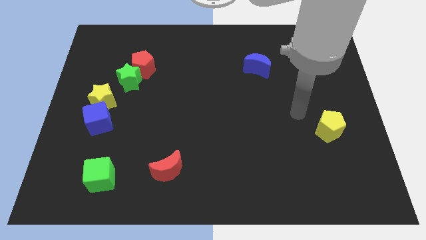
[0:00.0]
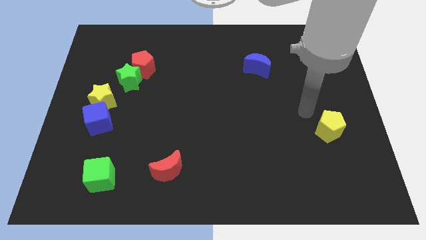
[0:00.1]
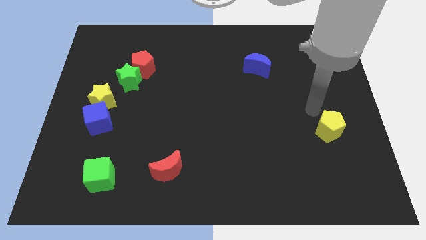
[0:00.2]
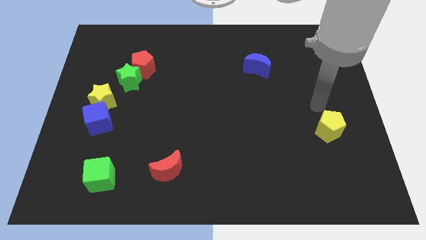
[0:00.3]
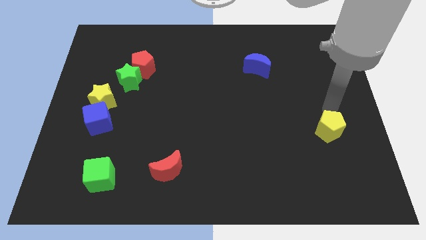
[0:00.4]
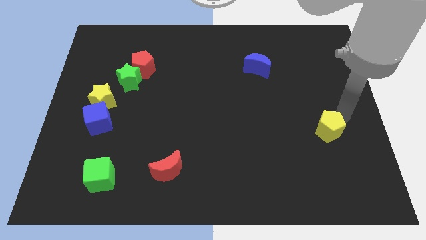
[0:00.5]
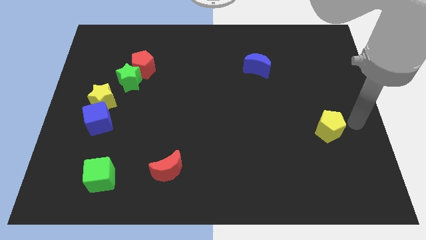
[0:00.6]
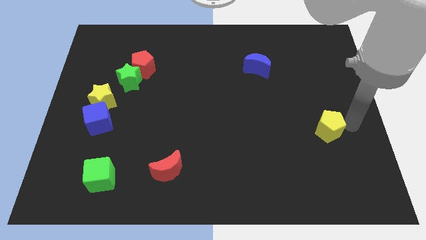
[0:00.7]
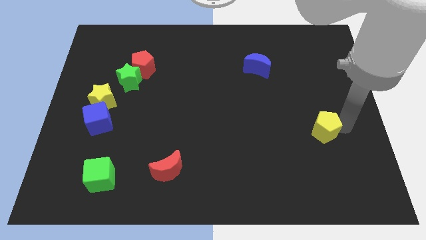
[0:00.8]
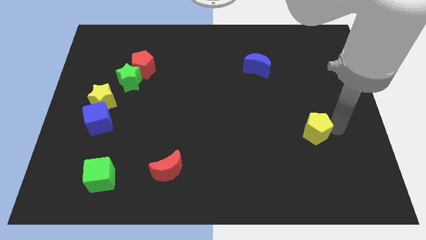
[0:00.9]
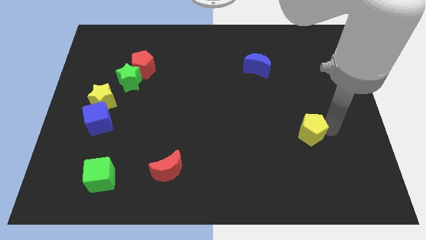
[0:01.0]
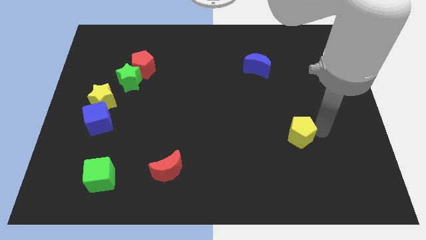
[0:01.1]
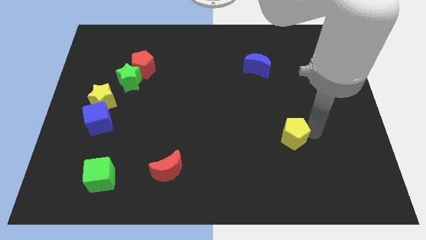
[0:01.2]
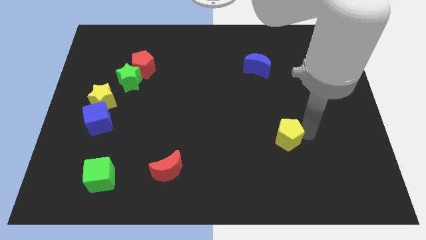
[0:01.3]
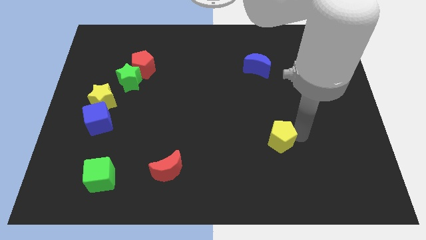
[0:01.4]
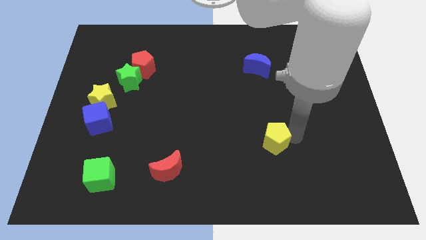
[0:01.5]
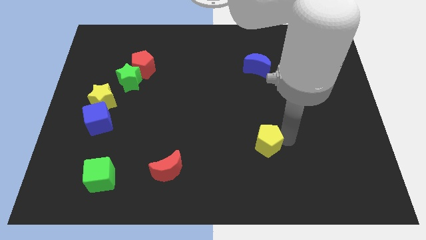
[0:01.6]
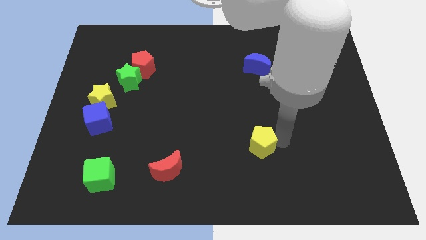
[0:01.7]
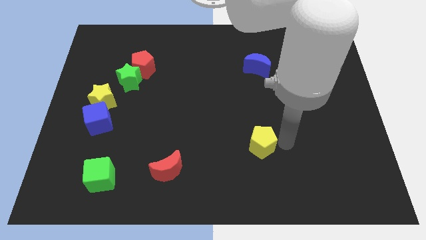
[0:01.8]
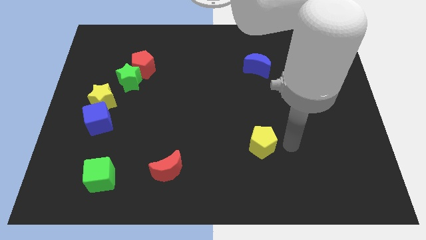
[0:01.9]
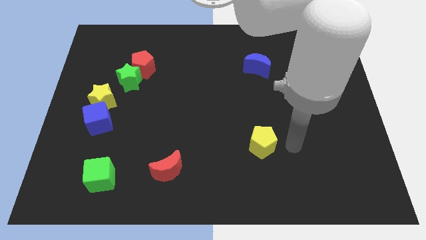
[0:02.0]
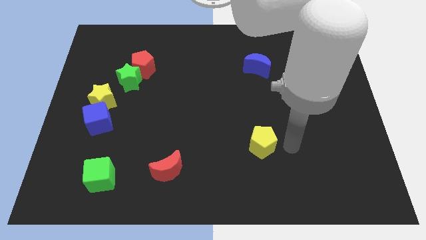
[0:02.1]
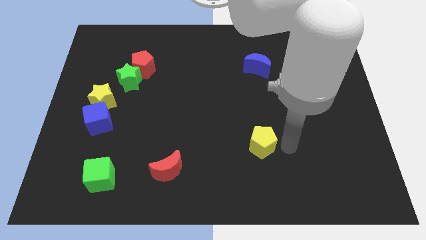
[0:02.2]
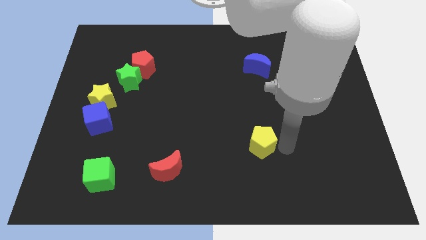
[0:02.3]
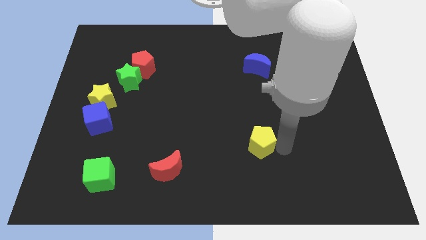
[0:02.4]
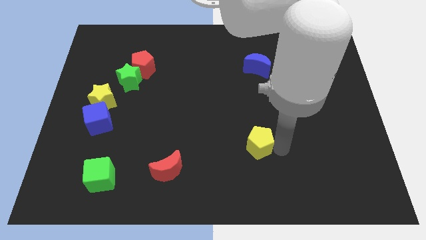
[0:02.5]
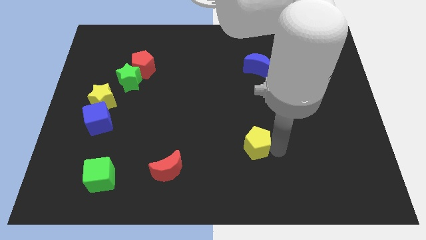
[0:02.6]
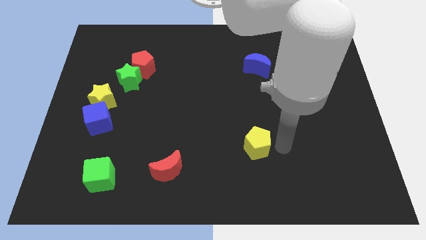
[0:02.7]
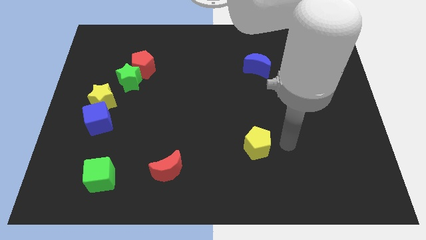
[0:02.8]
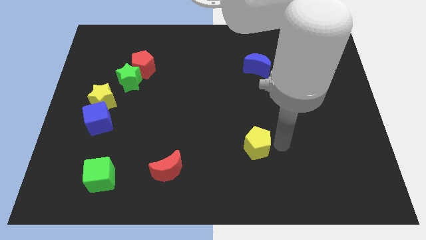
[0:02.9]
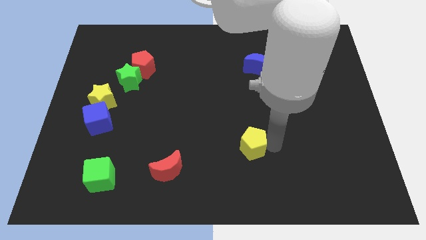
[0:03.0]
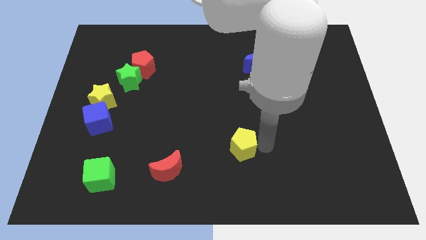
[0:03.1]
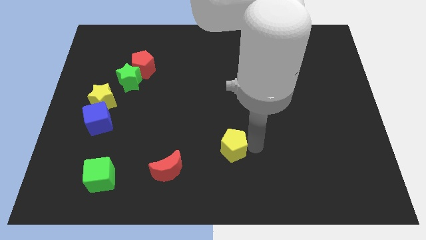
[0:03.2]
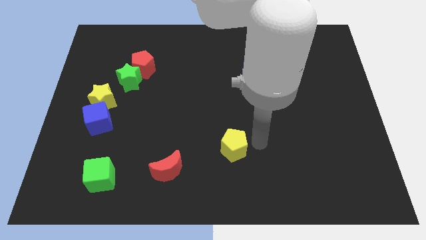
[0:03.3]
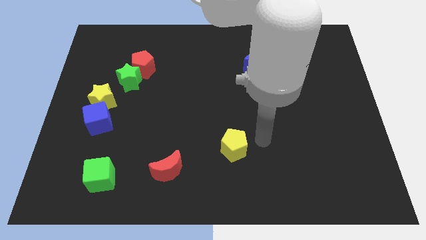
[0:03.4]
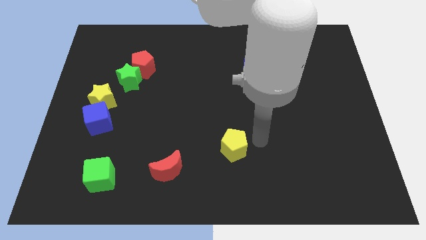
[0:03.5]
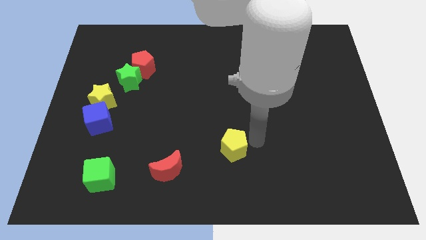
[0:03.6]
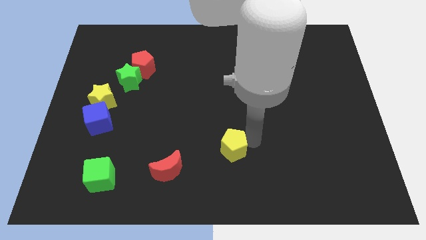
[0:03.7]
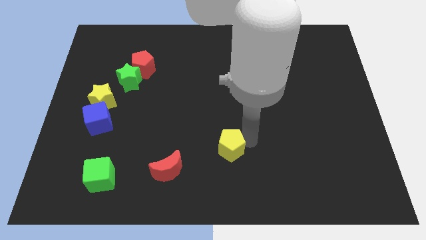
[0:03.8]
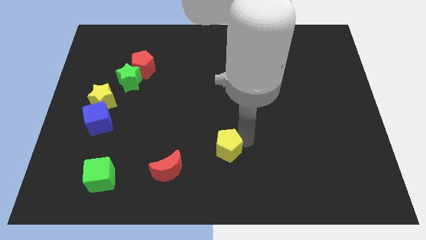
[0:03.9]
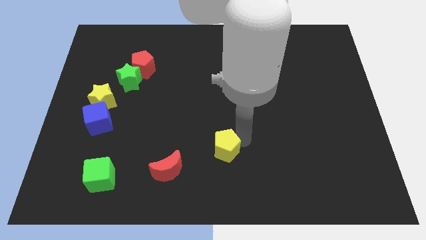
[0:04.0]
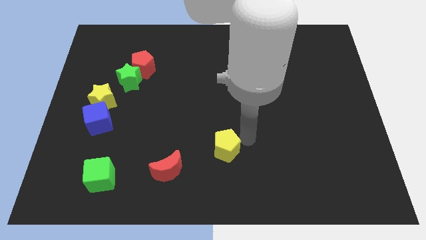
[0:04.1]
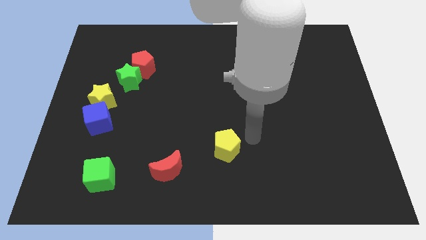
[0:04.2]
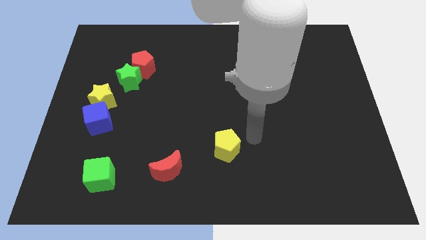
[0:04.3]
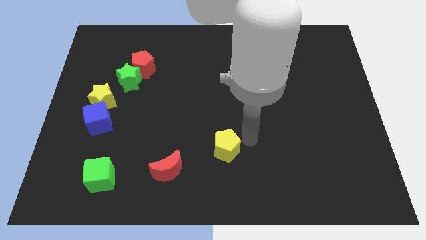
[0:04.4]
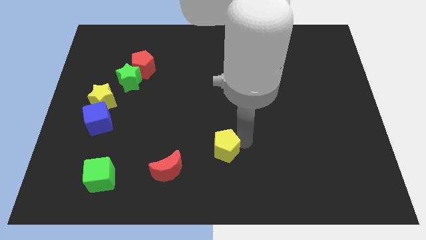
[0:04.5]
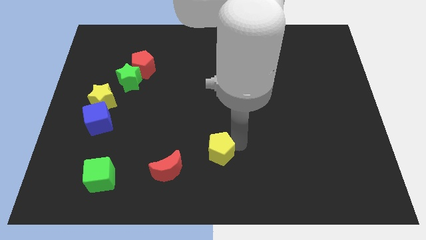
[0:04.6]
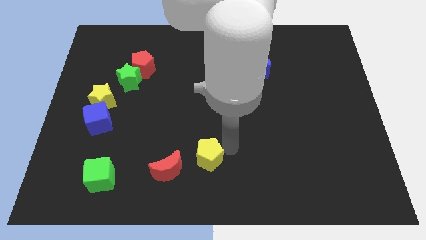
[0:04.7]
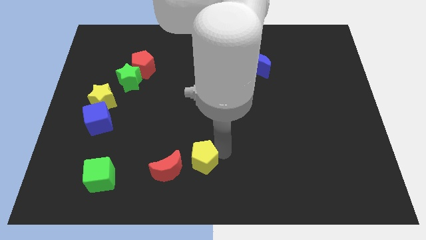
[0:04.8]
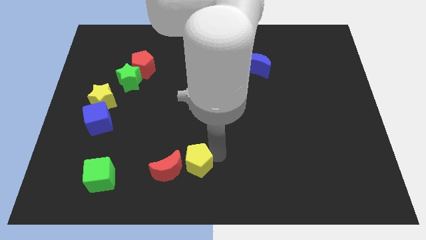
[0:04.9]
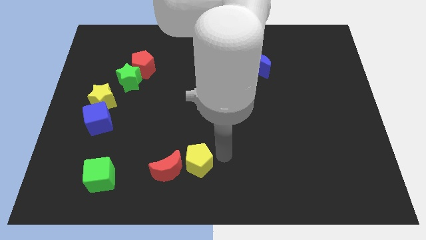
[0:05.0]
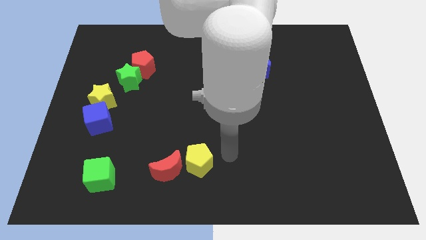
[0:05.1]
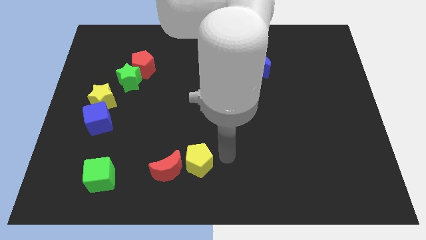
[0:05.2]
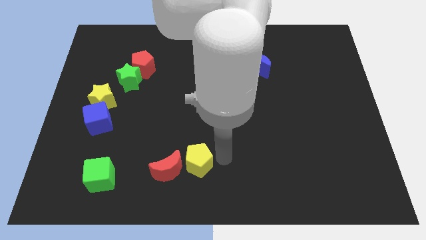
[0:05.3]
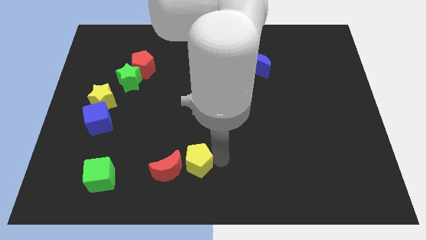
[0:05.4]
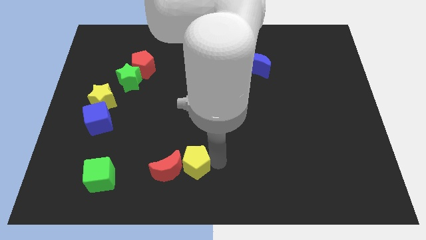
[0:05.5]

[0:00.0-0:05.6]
slide the yellow pentagon towards the red moon

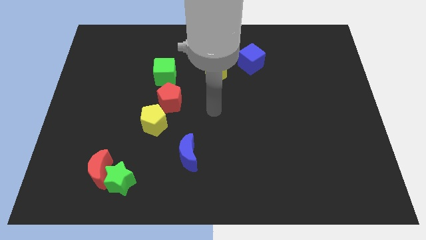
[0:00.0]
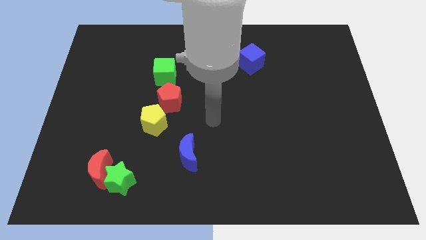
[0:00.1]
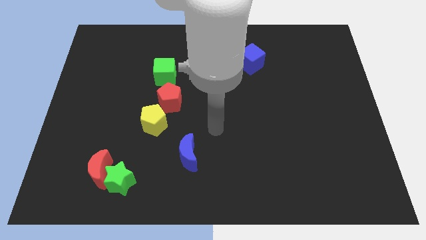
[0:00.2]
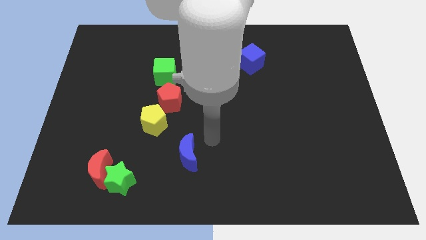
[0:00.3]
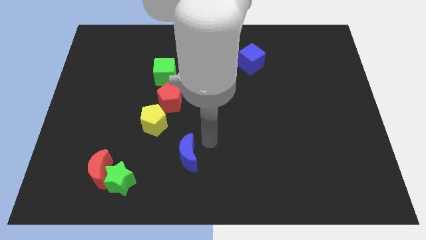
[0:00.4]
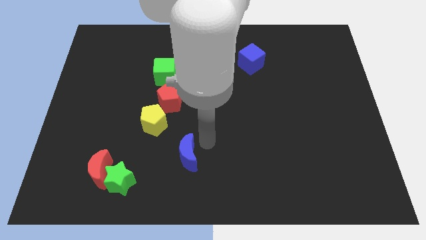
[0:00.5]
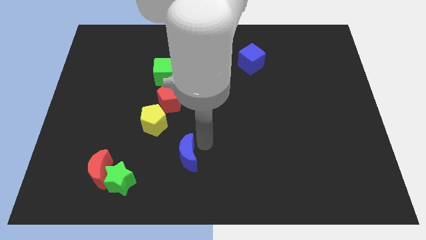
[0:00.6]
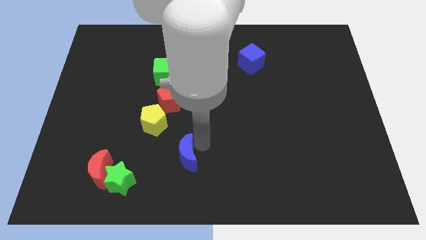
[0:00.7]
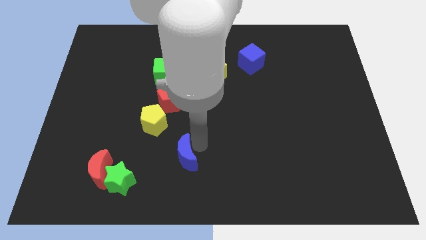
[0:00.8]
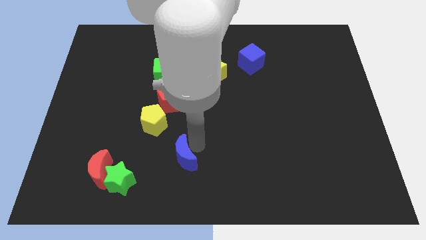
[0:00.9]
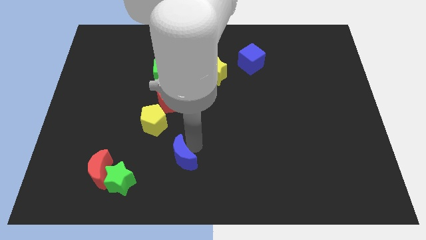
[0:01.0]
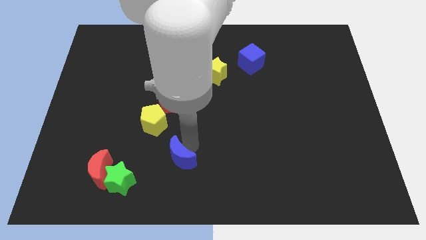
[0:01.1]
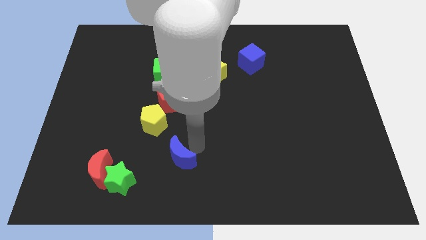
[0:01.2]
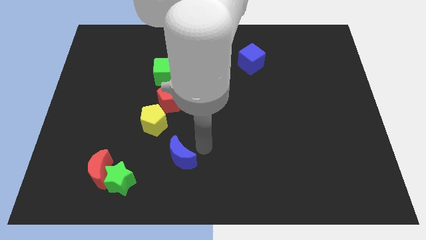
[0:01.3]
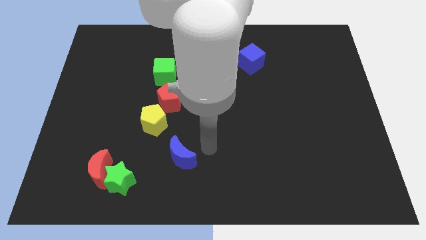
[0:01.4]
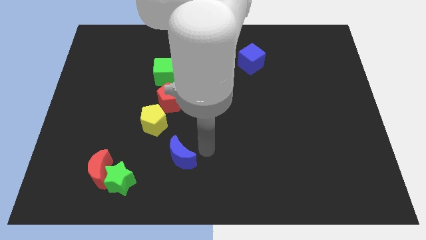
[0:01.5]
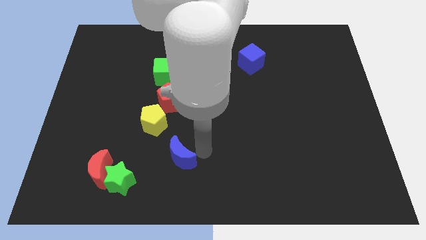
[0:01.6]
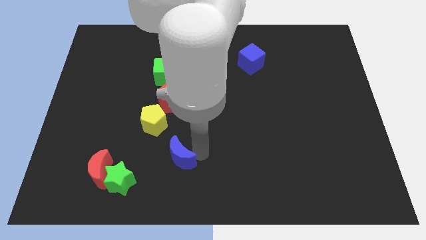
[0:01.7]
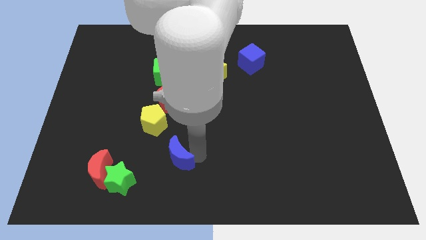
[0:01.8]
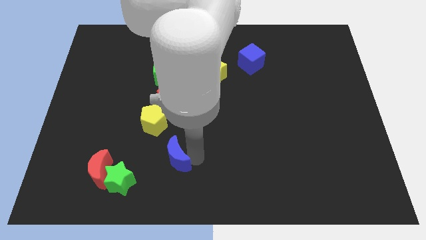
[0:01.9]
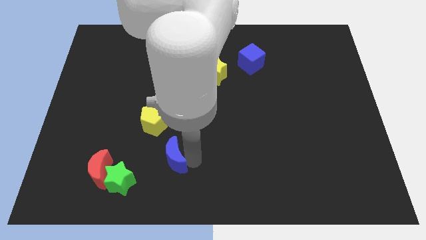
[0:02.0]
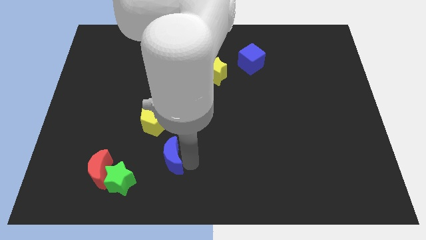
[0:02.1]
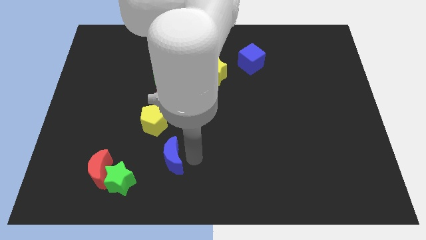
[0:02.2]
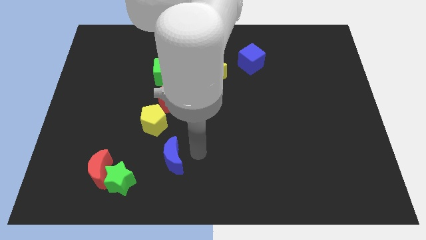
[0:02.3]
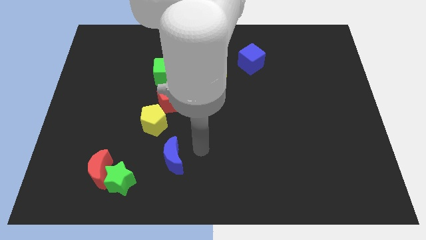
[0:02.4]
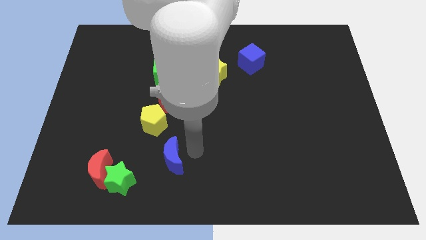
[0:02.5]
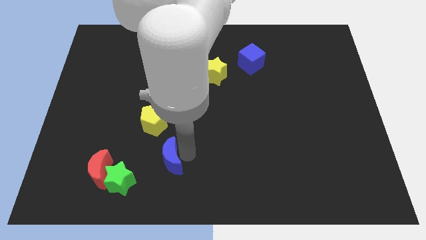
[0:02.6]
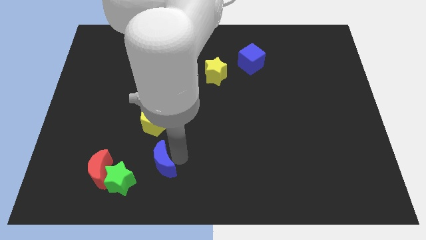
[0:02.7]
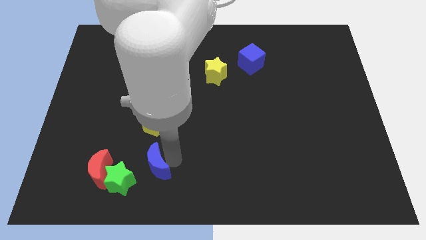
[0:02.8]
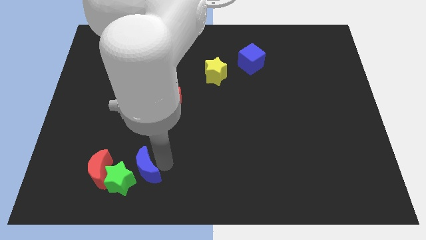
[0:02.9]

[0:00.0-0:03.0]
move the blue moon towards the green star
